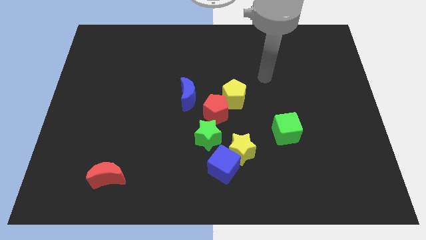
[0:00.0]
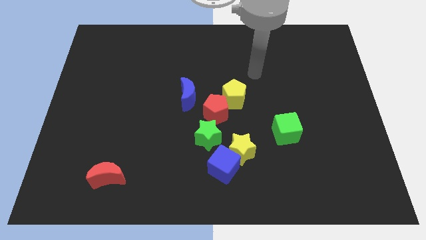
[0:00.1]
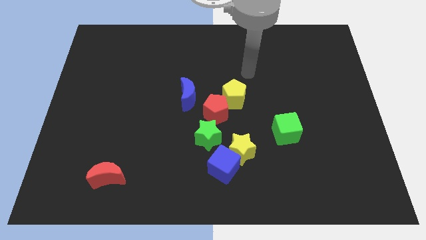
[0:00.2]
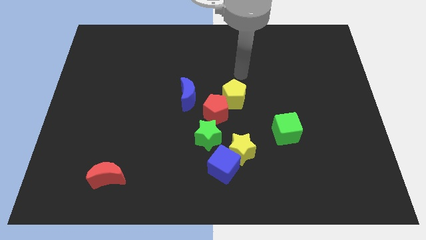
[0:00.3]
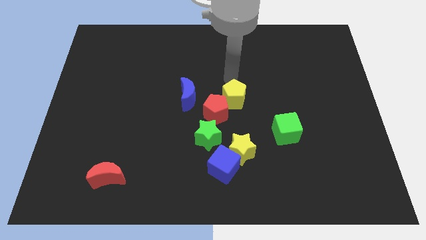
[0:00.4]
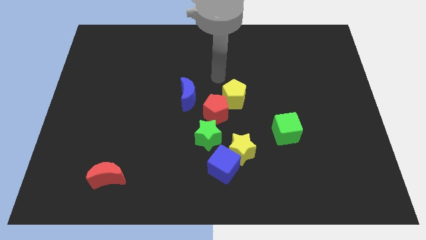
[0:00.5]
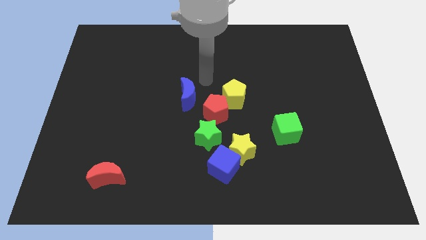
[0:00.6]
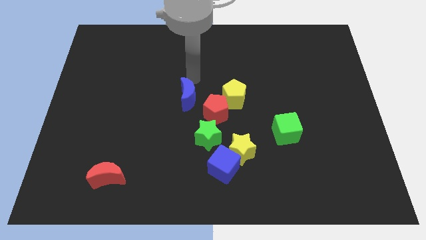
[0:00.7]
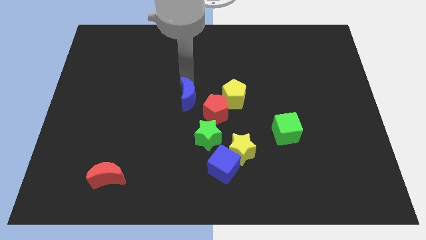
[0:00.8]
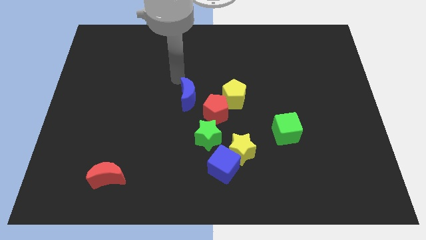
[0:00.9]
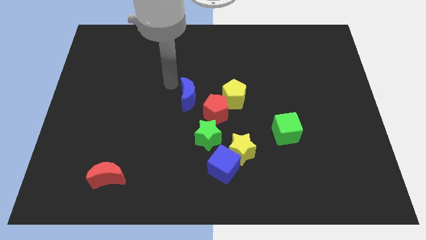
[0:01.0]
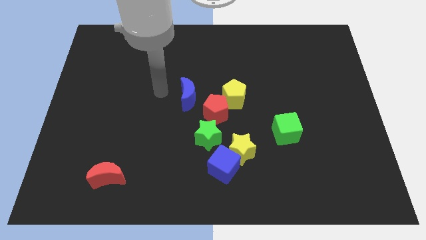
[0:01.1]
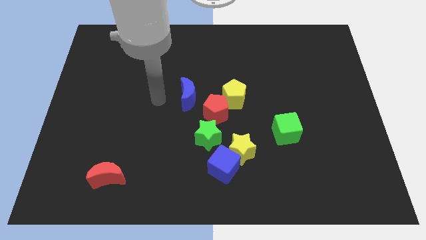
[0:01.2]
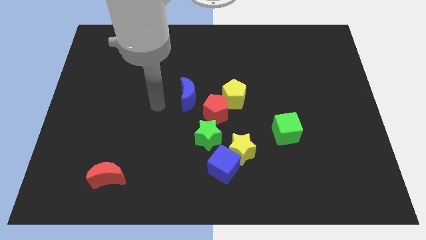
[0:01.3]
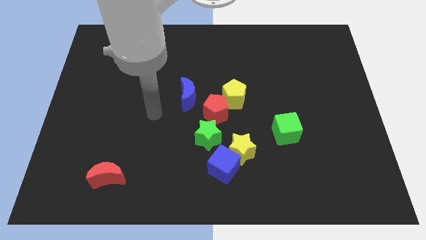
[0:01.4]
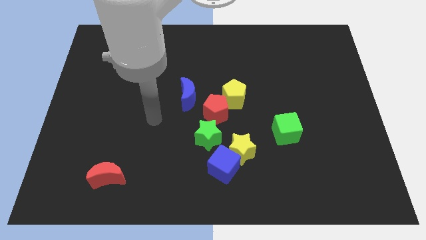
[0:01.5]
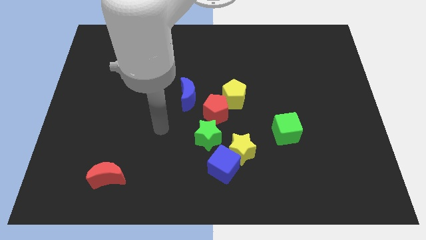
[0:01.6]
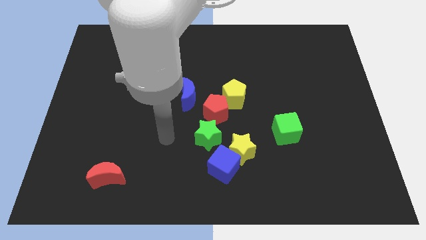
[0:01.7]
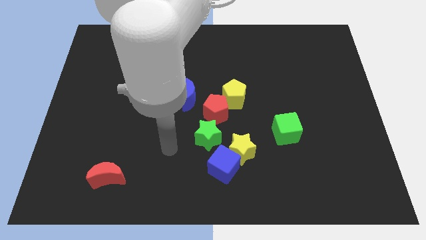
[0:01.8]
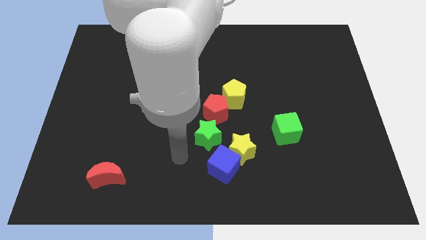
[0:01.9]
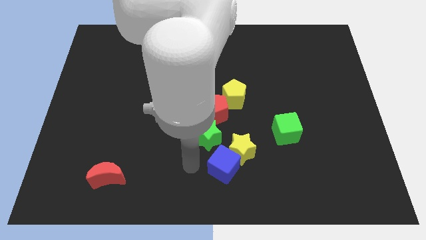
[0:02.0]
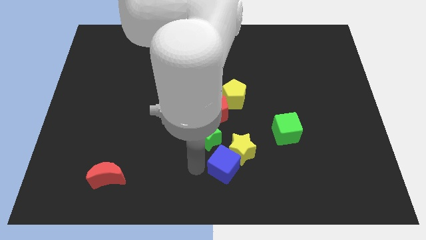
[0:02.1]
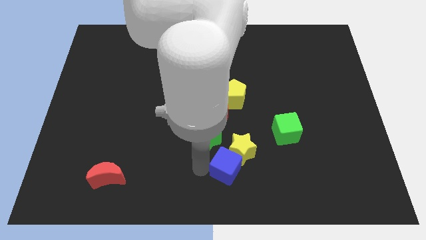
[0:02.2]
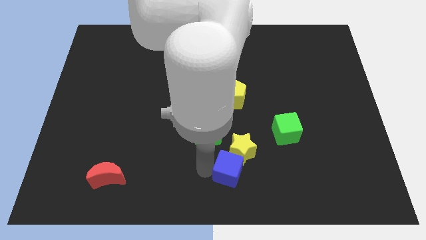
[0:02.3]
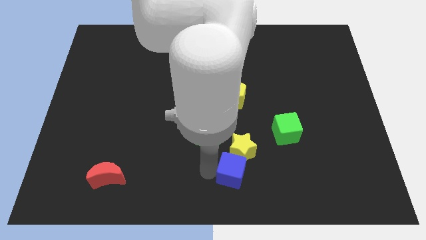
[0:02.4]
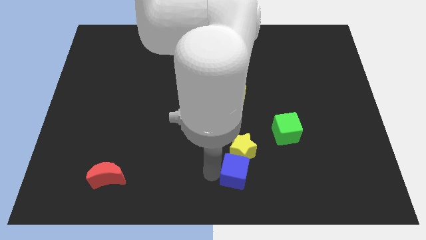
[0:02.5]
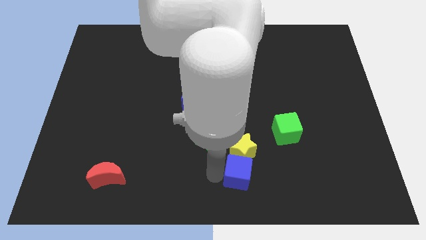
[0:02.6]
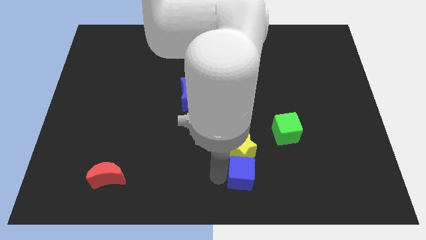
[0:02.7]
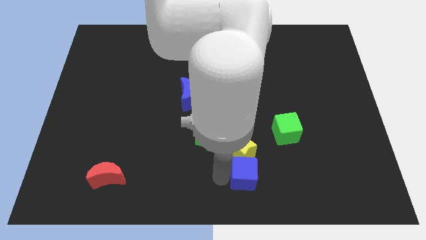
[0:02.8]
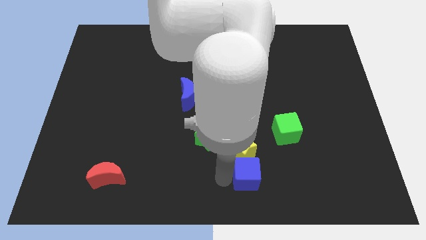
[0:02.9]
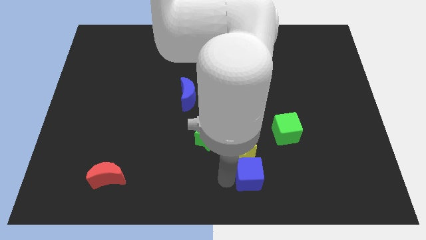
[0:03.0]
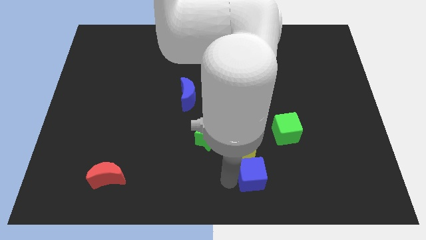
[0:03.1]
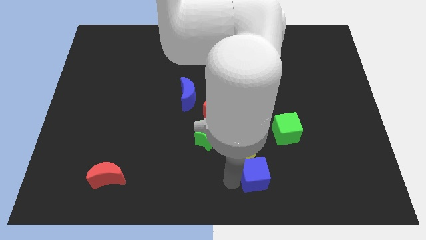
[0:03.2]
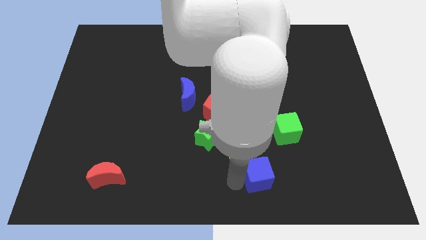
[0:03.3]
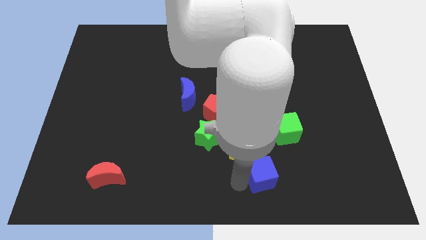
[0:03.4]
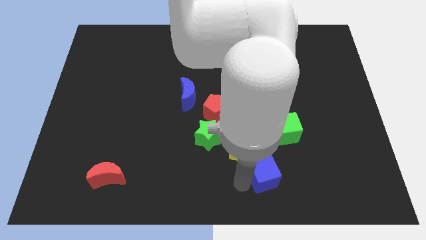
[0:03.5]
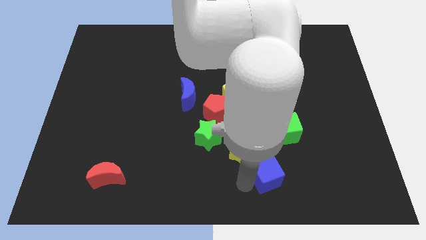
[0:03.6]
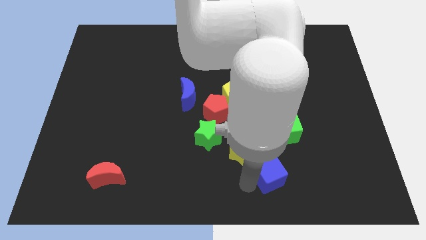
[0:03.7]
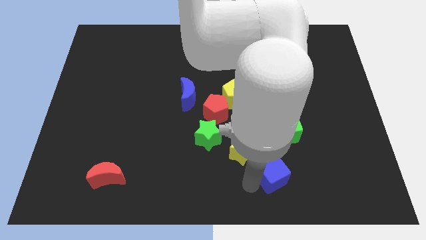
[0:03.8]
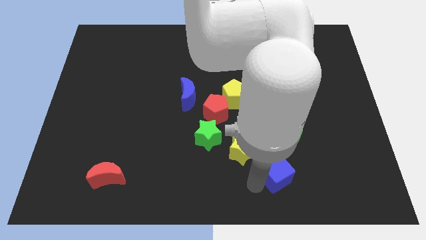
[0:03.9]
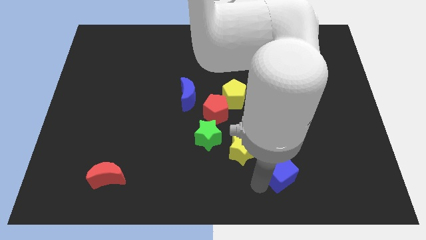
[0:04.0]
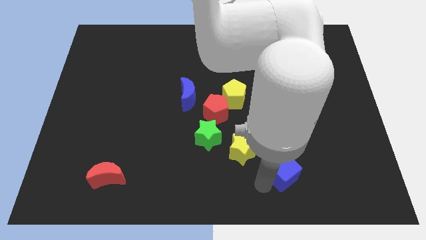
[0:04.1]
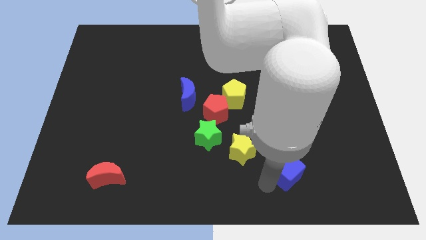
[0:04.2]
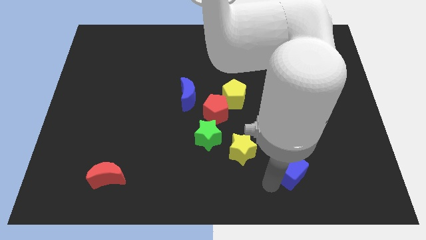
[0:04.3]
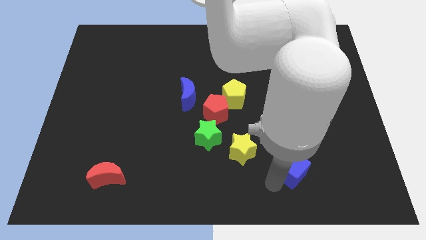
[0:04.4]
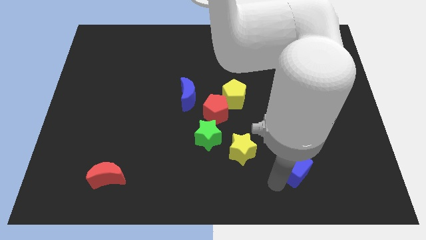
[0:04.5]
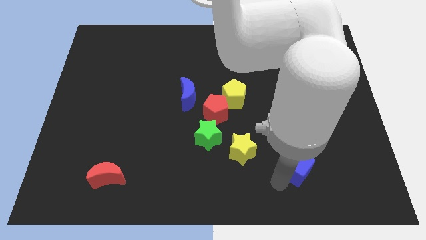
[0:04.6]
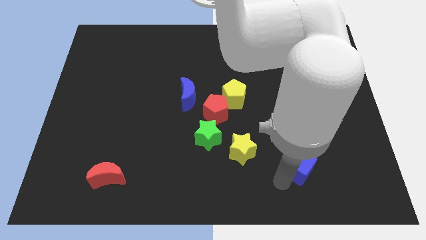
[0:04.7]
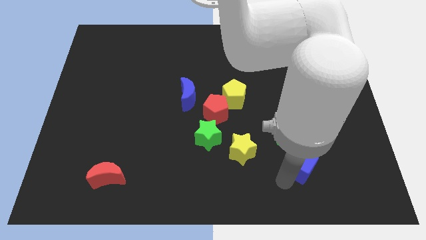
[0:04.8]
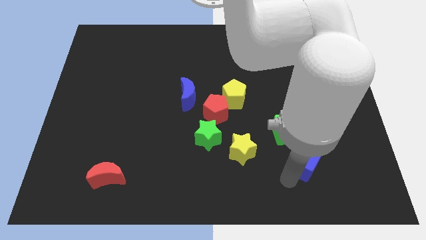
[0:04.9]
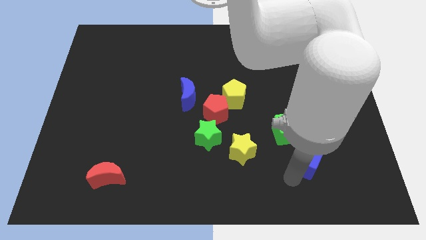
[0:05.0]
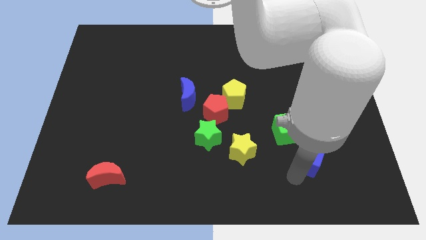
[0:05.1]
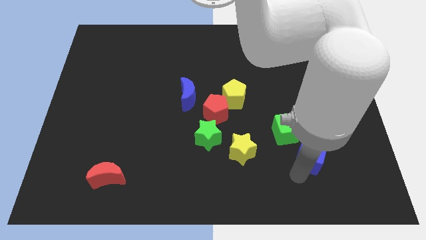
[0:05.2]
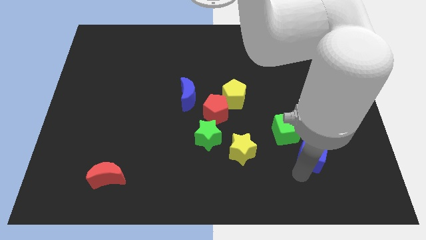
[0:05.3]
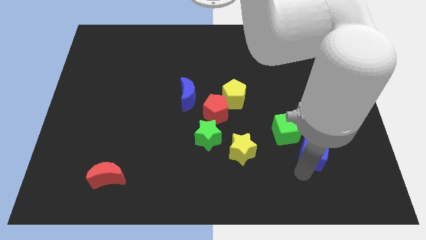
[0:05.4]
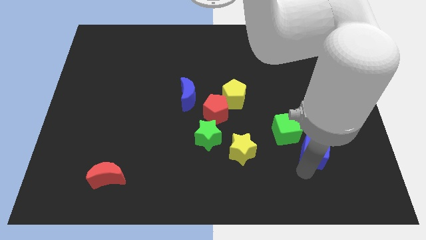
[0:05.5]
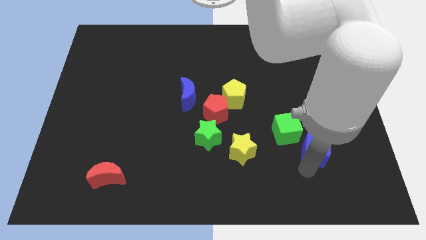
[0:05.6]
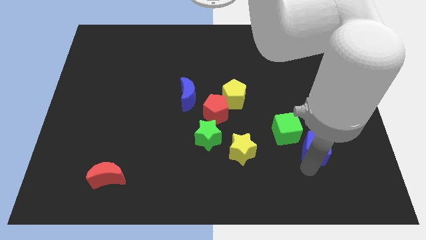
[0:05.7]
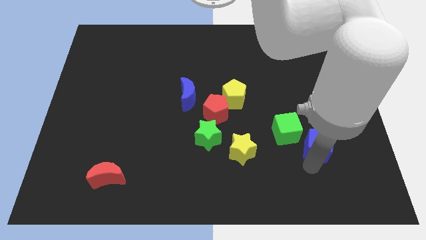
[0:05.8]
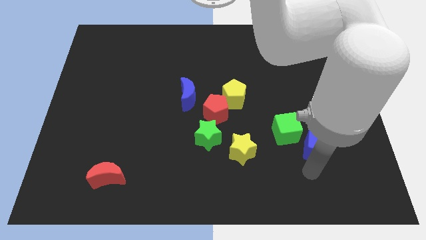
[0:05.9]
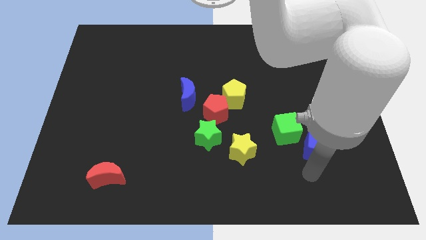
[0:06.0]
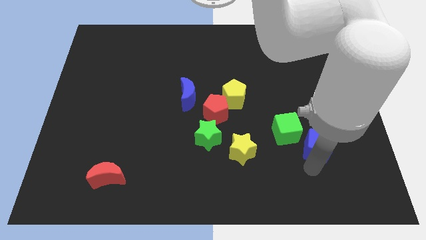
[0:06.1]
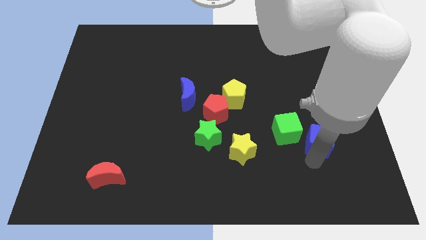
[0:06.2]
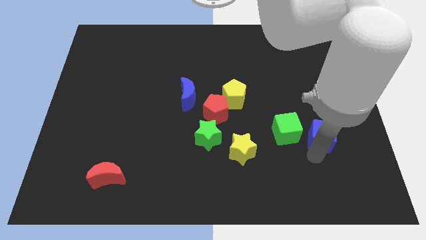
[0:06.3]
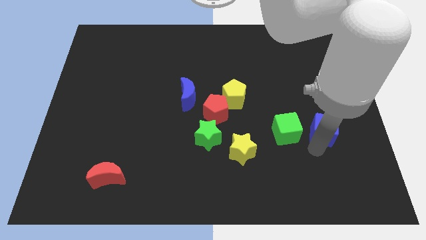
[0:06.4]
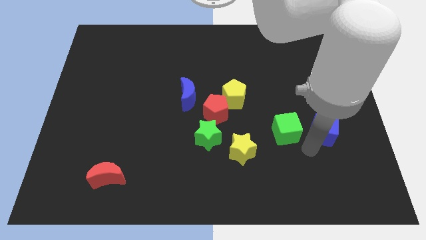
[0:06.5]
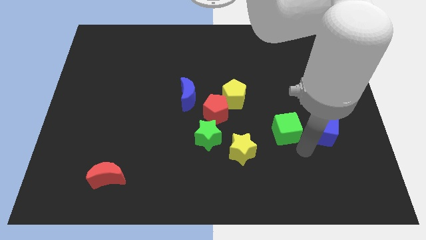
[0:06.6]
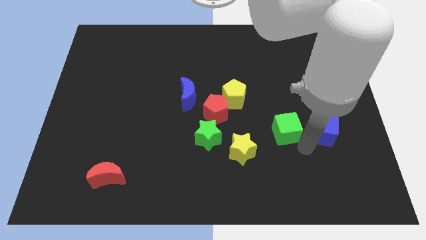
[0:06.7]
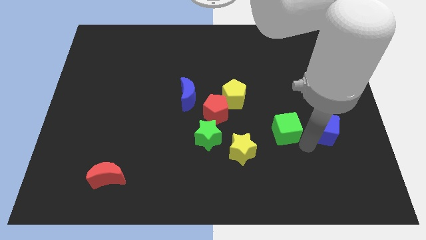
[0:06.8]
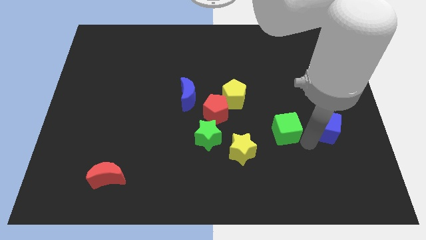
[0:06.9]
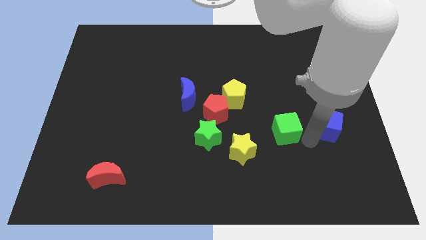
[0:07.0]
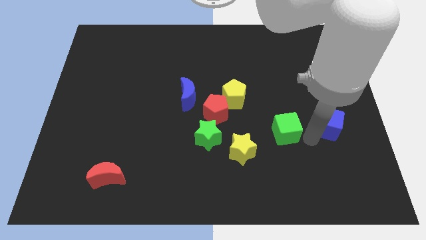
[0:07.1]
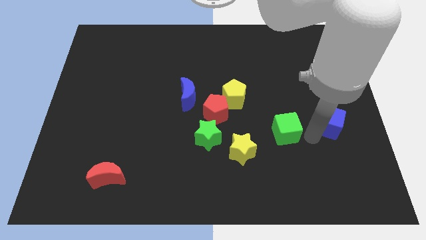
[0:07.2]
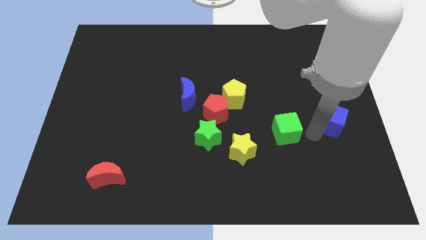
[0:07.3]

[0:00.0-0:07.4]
slide the blue cube to the right side
